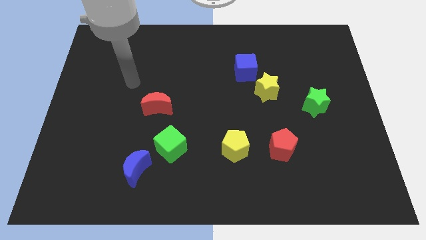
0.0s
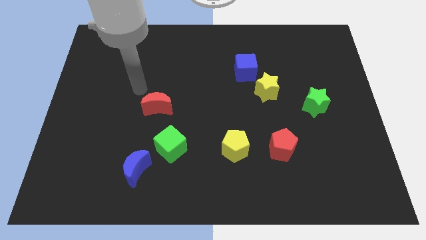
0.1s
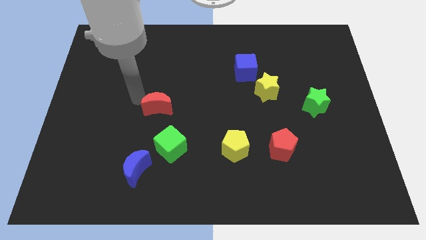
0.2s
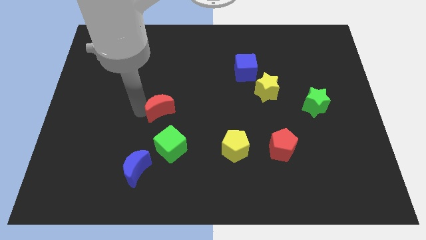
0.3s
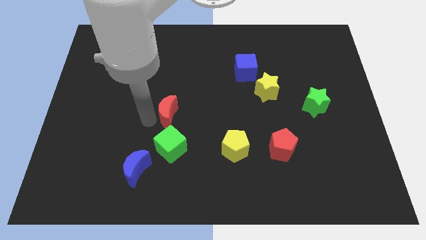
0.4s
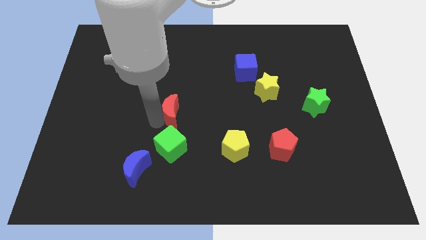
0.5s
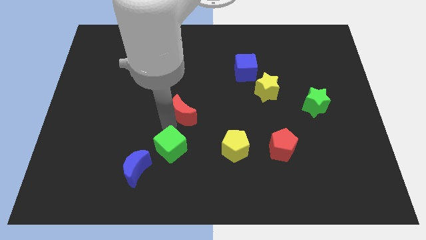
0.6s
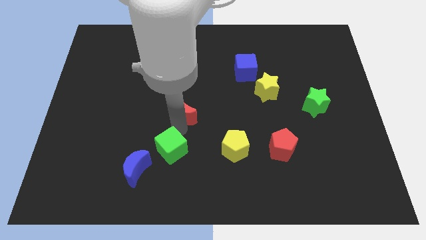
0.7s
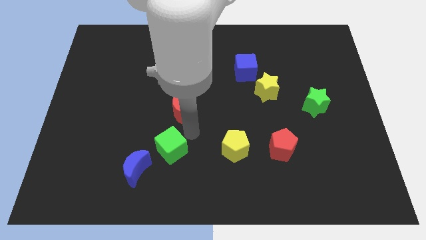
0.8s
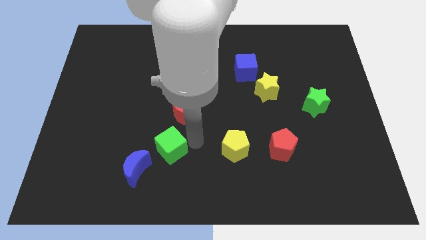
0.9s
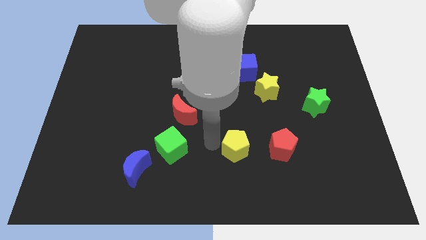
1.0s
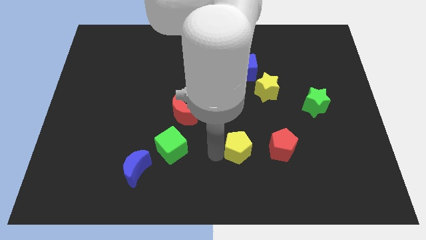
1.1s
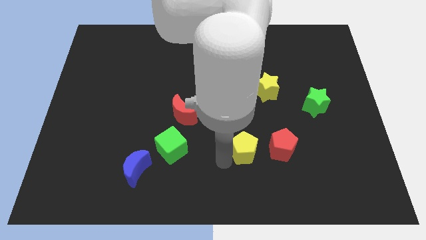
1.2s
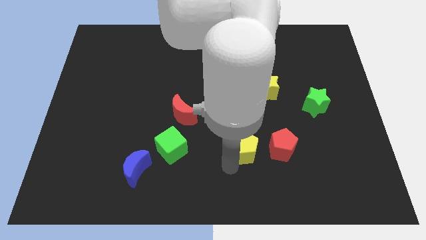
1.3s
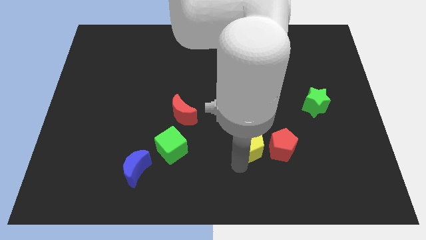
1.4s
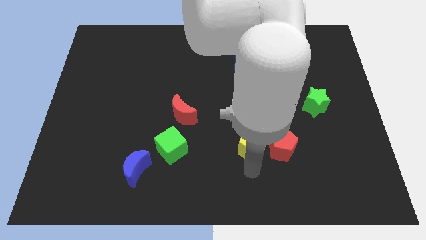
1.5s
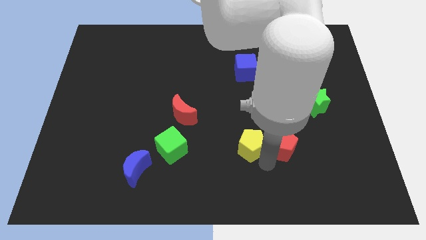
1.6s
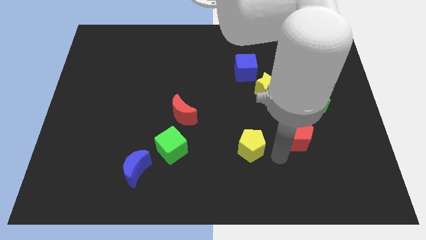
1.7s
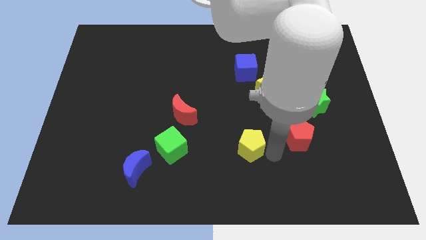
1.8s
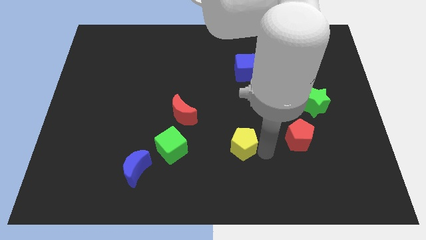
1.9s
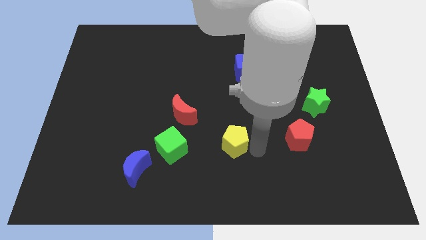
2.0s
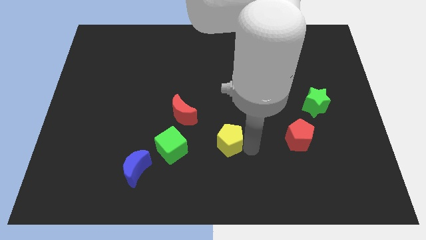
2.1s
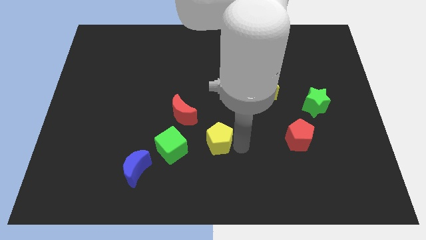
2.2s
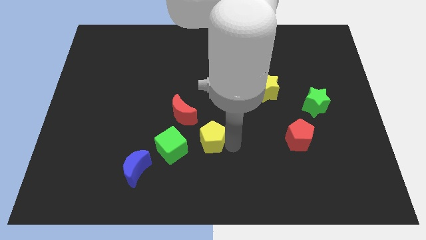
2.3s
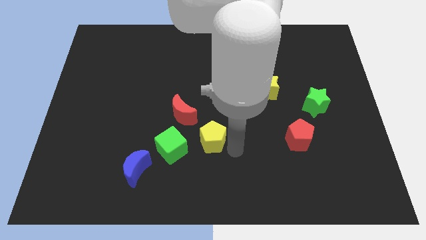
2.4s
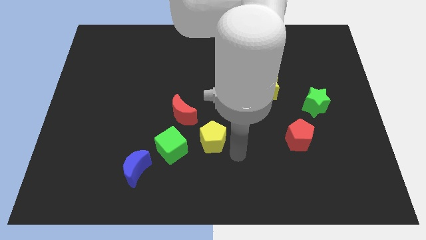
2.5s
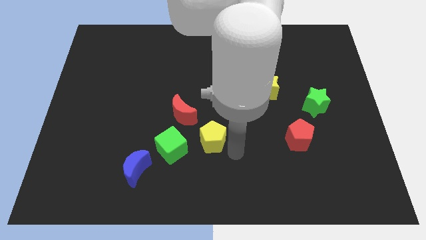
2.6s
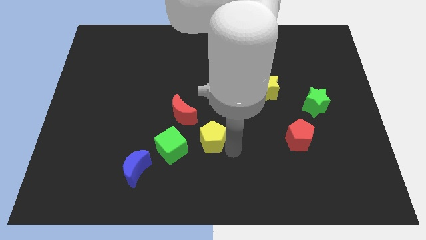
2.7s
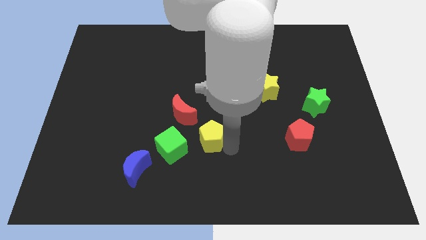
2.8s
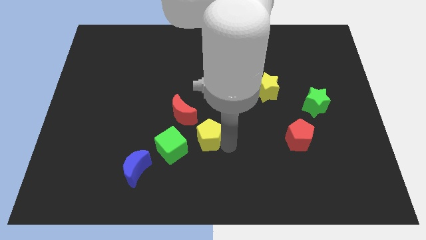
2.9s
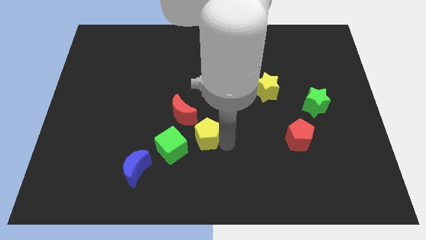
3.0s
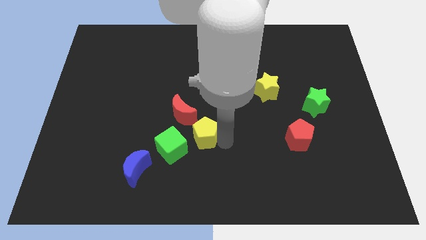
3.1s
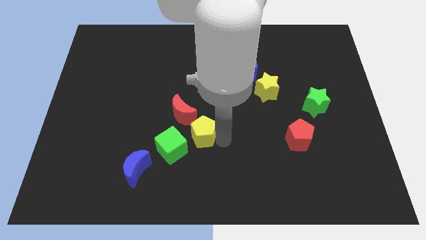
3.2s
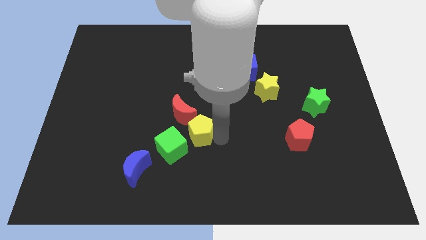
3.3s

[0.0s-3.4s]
slightly push the yellow pentagon to the left

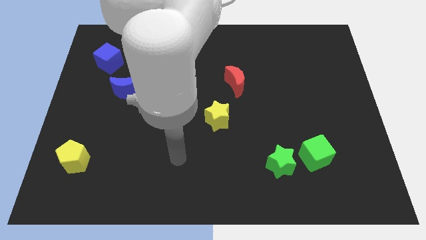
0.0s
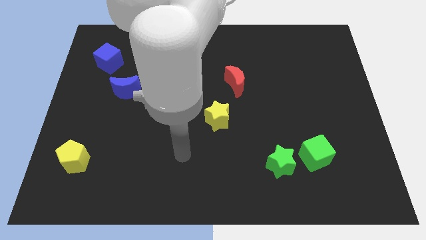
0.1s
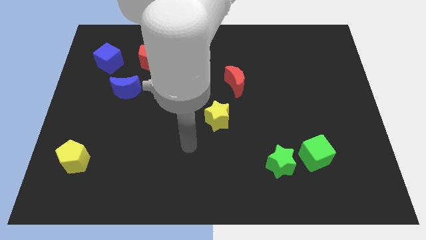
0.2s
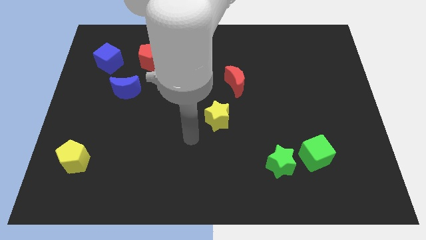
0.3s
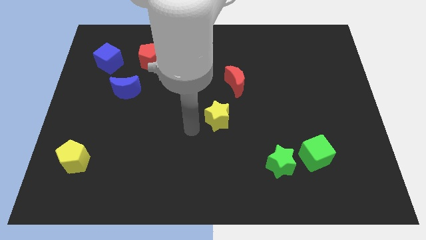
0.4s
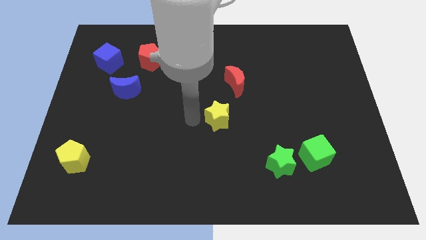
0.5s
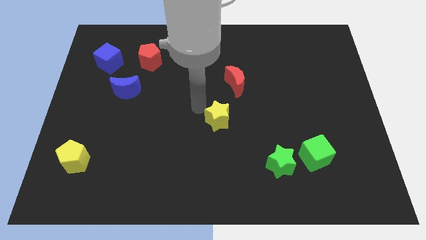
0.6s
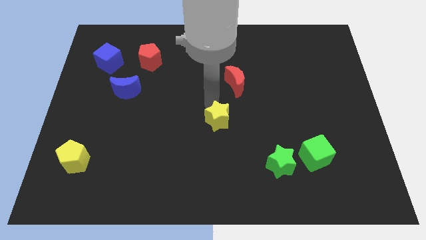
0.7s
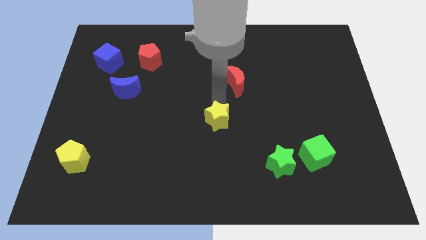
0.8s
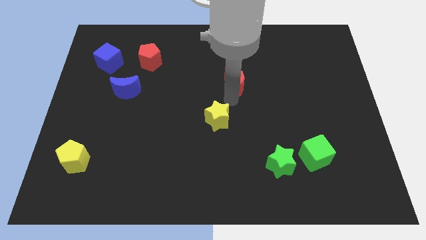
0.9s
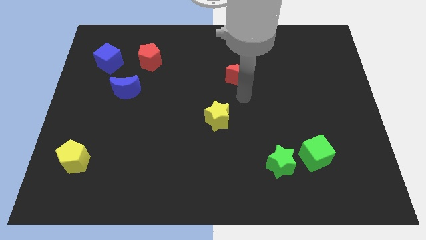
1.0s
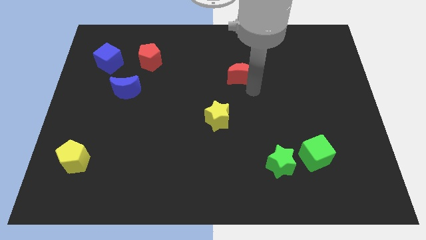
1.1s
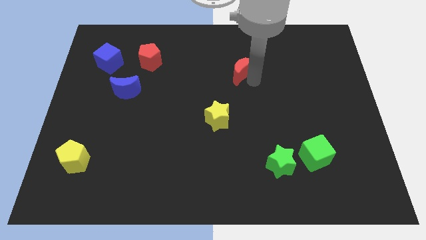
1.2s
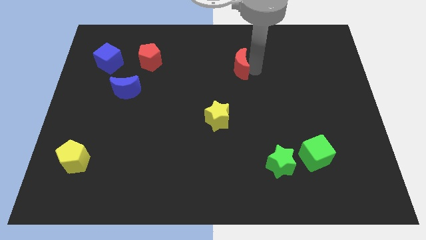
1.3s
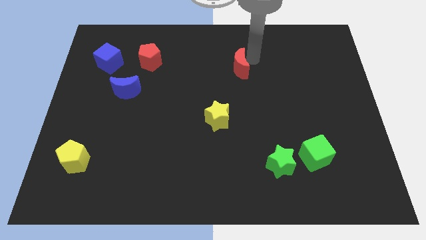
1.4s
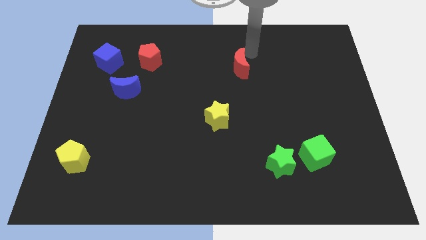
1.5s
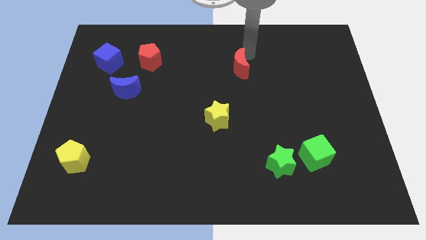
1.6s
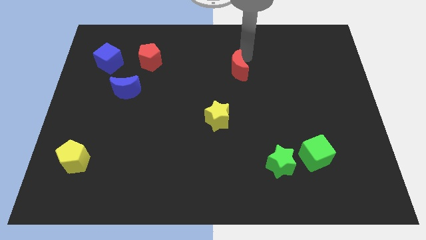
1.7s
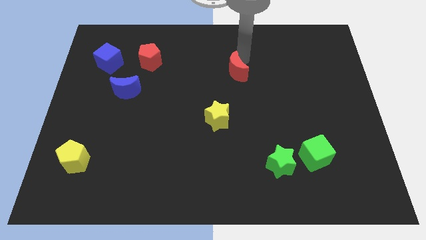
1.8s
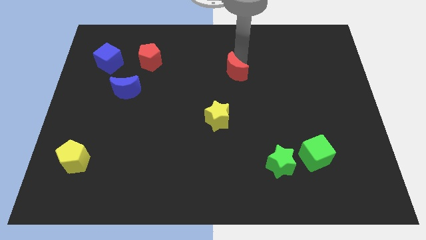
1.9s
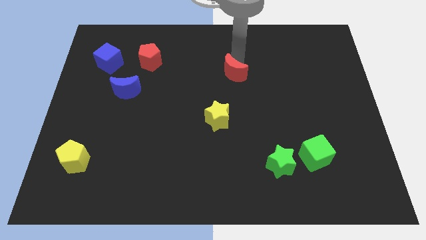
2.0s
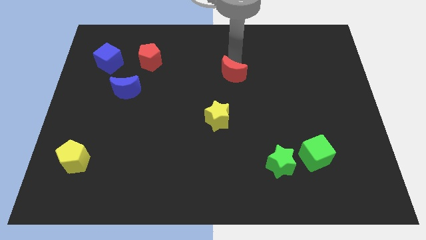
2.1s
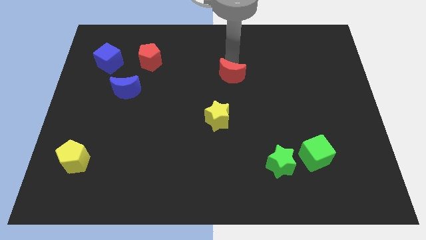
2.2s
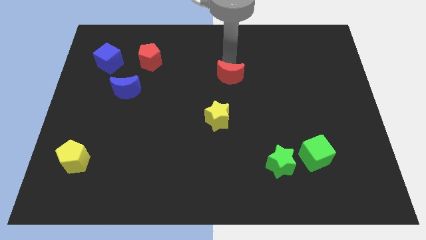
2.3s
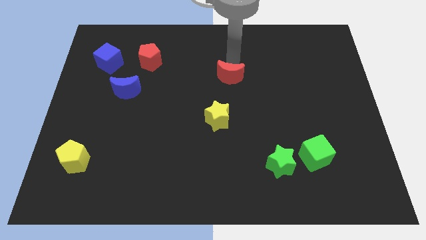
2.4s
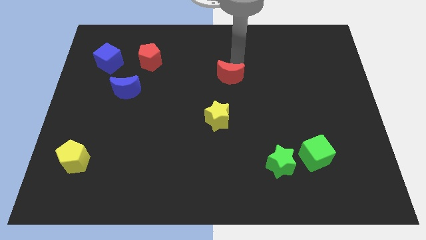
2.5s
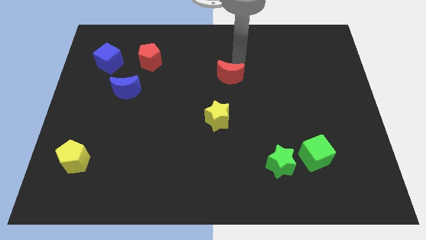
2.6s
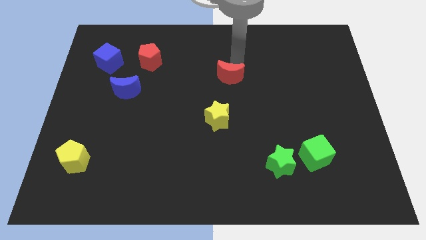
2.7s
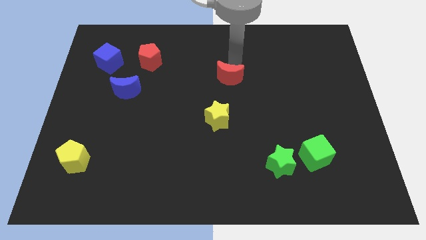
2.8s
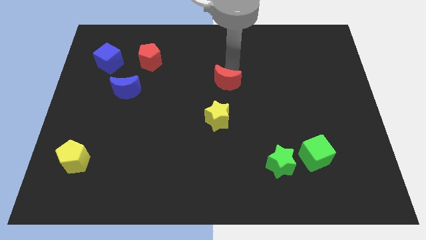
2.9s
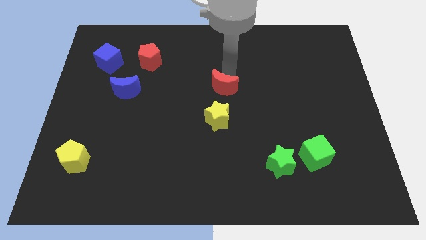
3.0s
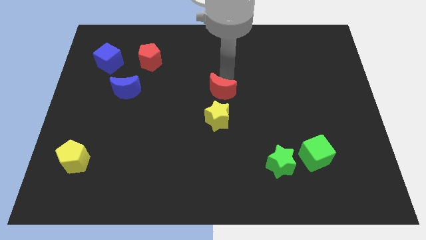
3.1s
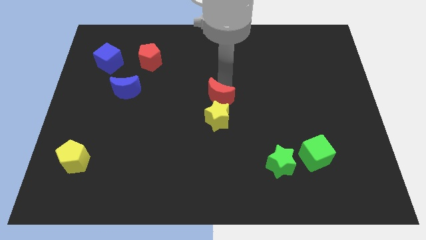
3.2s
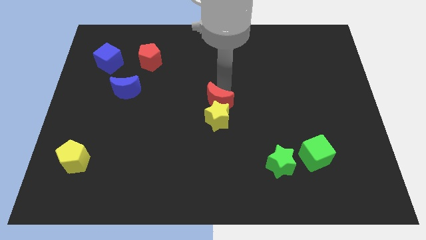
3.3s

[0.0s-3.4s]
move the red moon down and then to the left a bit

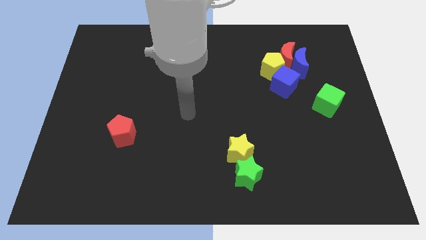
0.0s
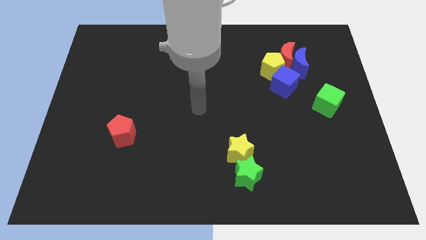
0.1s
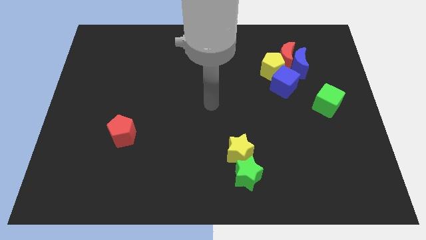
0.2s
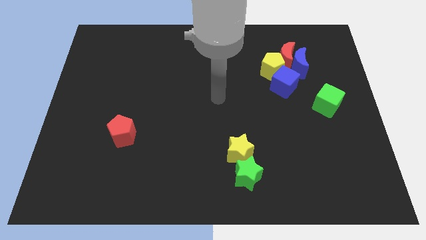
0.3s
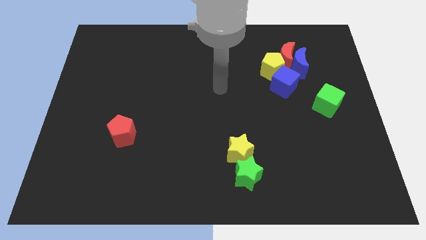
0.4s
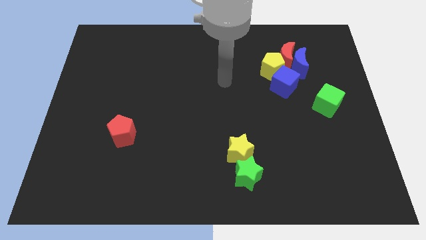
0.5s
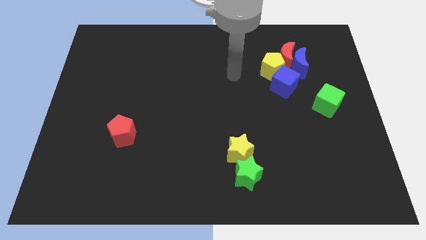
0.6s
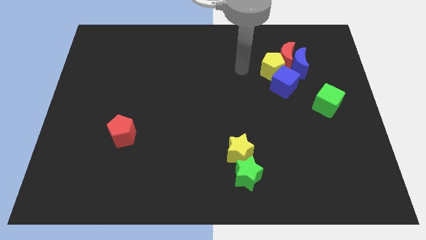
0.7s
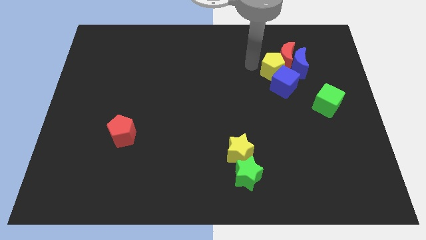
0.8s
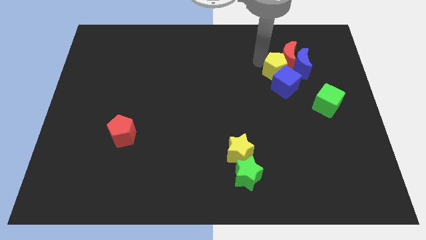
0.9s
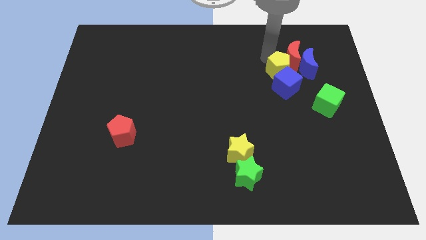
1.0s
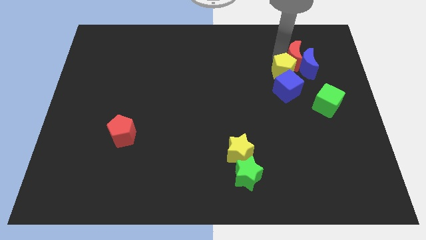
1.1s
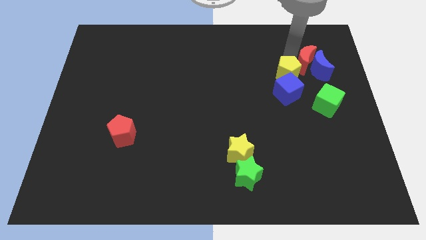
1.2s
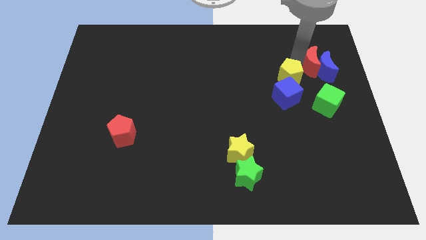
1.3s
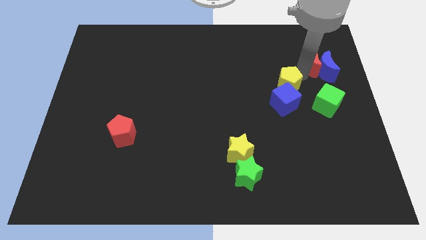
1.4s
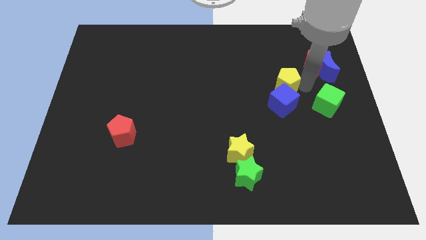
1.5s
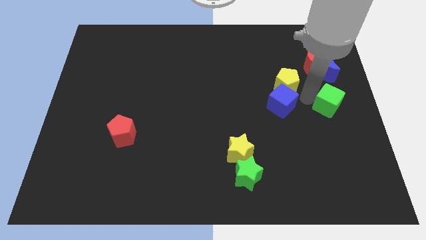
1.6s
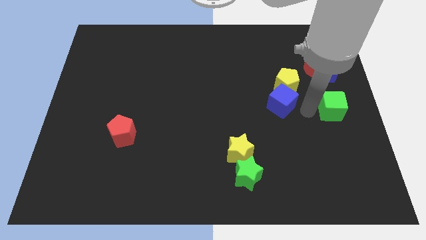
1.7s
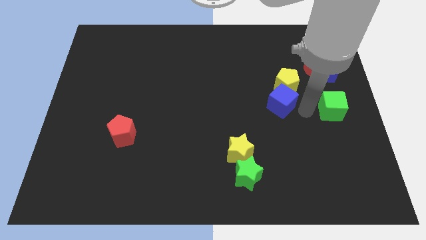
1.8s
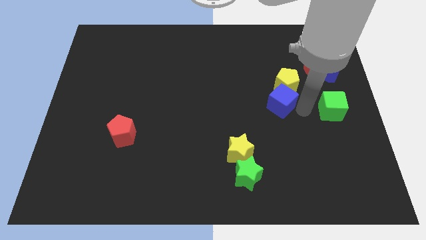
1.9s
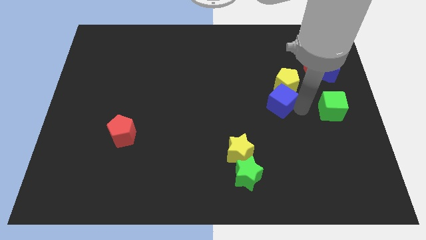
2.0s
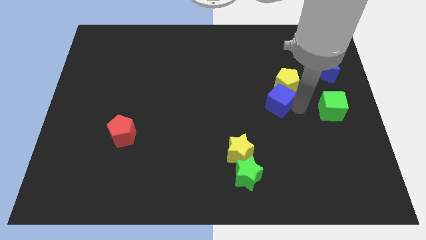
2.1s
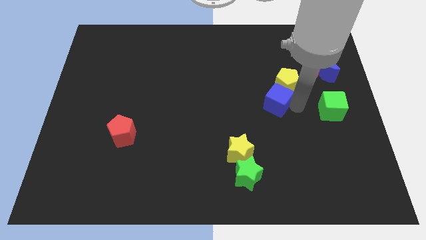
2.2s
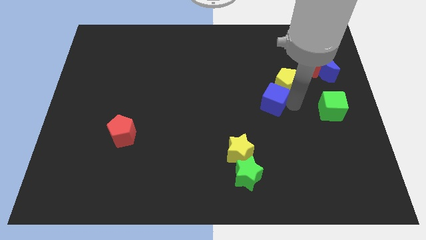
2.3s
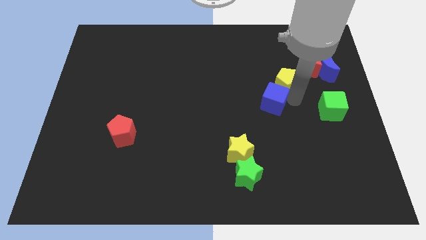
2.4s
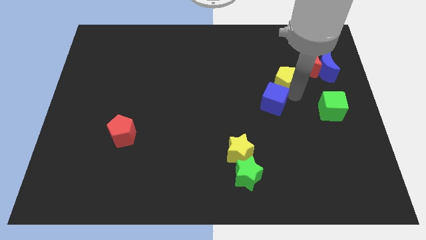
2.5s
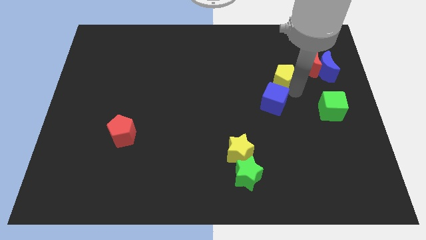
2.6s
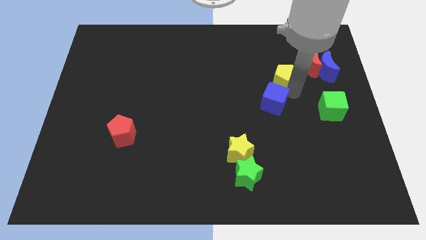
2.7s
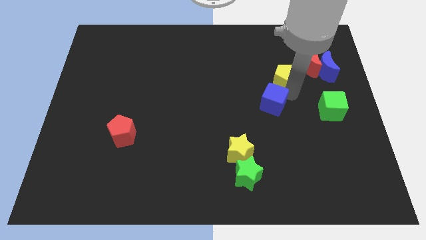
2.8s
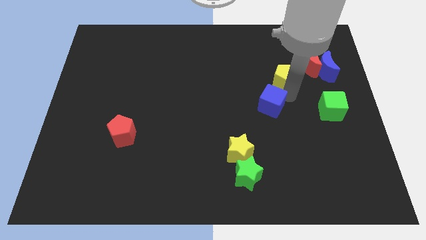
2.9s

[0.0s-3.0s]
push the blue cube down and to the left diagonally a little bit
